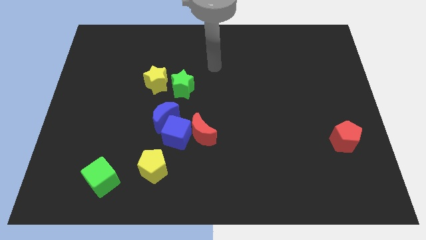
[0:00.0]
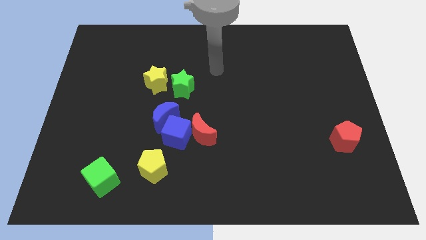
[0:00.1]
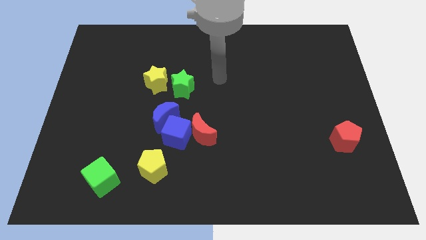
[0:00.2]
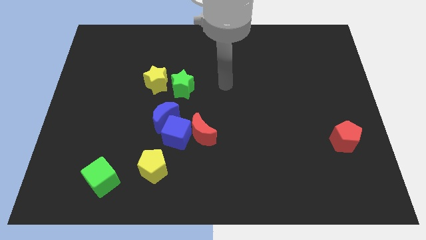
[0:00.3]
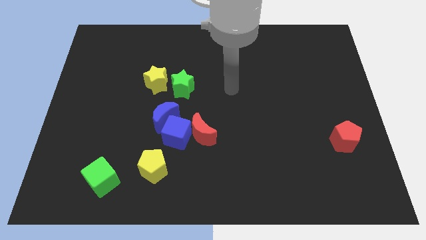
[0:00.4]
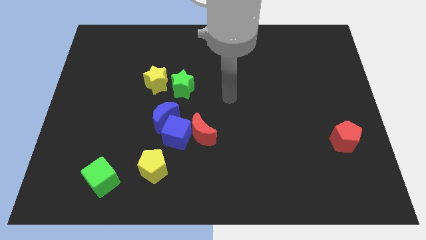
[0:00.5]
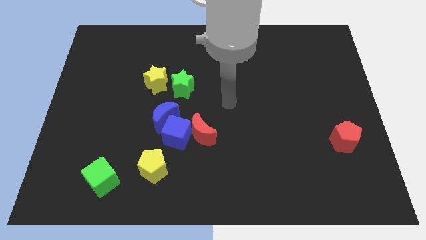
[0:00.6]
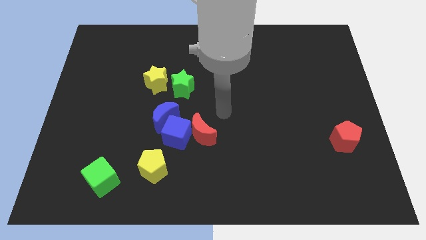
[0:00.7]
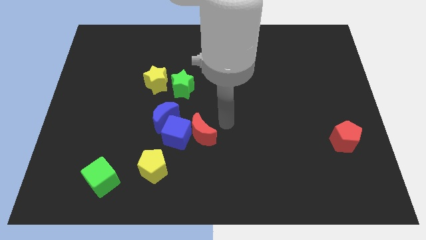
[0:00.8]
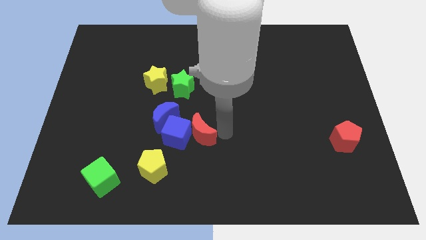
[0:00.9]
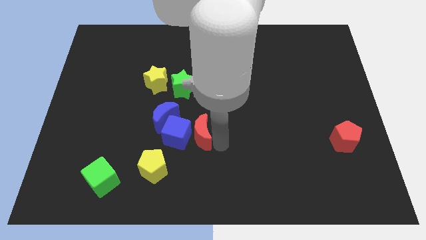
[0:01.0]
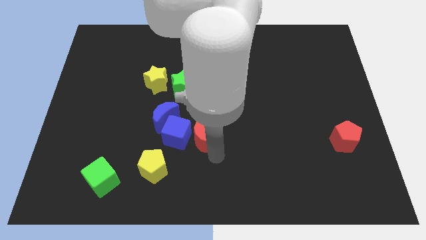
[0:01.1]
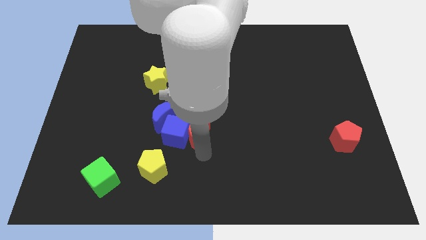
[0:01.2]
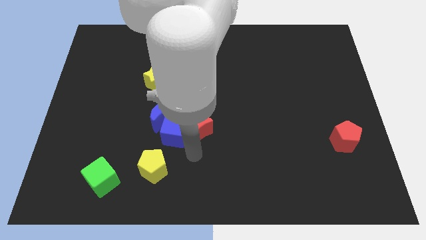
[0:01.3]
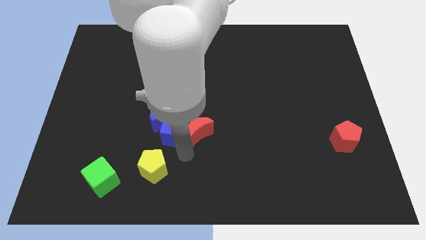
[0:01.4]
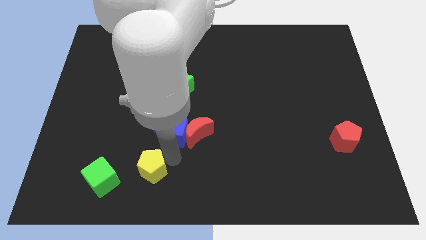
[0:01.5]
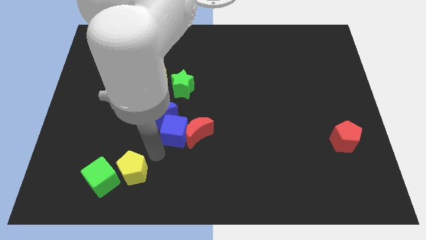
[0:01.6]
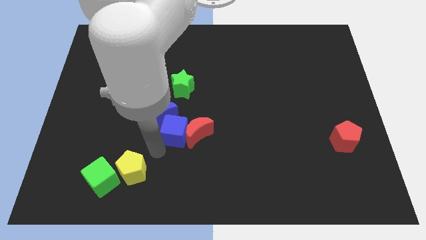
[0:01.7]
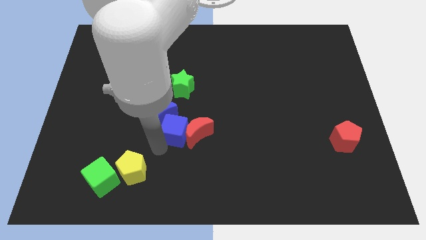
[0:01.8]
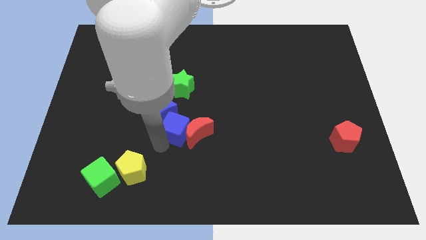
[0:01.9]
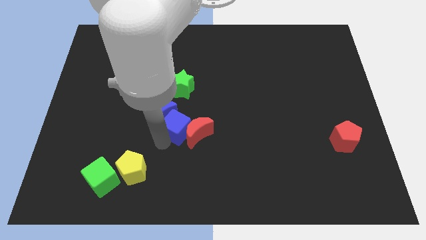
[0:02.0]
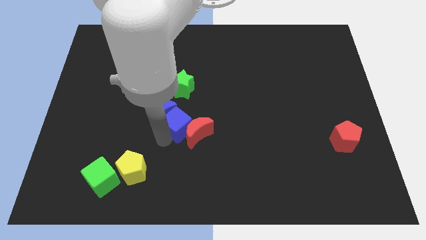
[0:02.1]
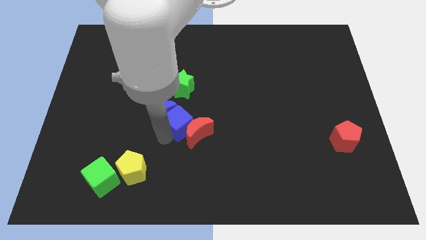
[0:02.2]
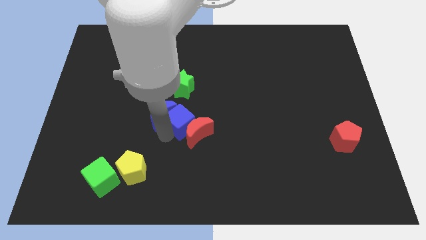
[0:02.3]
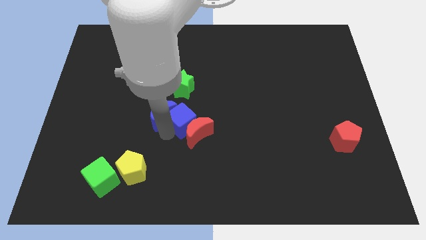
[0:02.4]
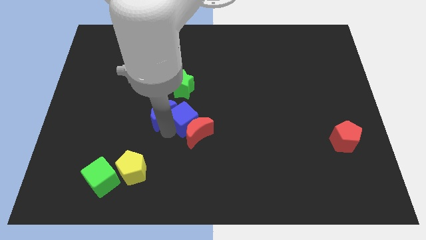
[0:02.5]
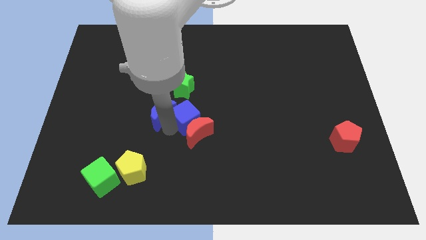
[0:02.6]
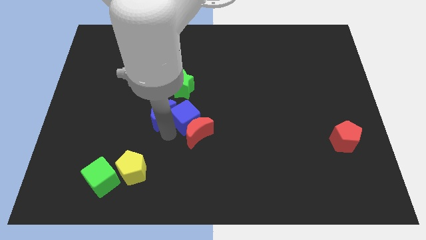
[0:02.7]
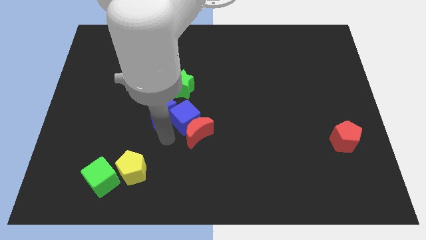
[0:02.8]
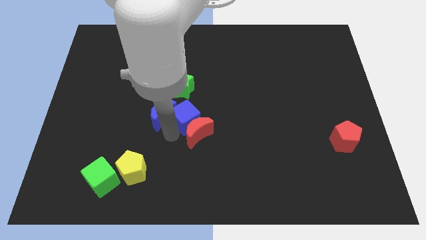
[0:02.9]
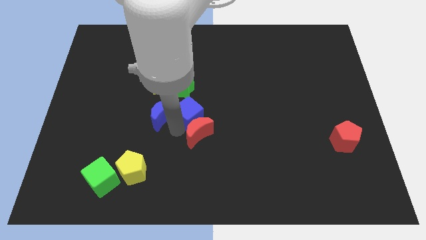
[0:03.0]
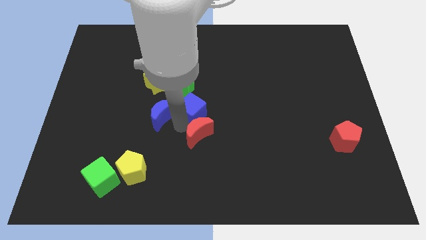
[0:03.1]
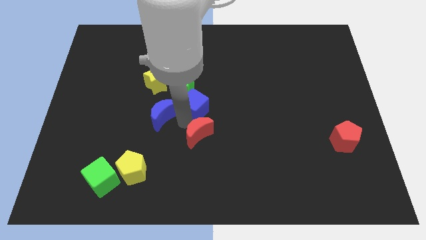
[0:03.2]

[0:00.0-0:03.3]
move the blue cube away from the clump

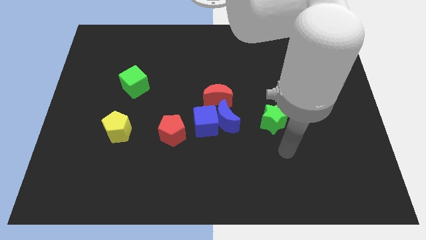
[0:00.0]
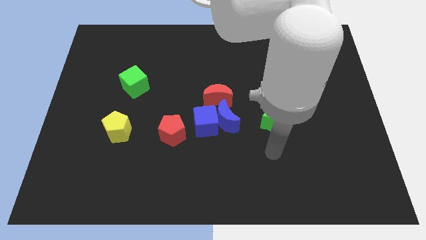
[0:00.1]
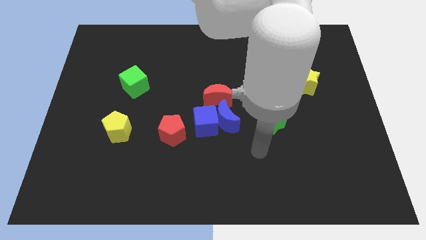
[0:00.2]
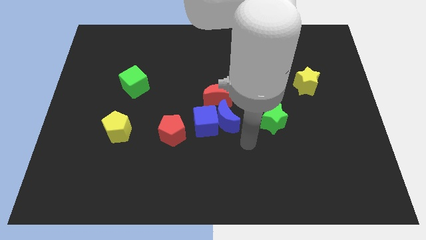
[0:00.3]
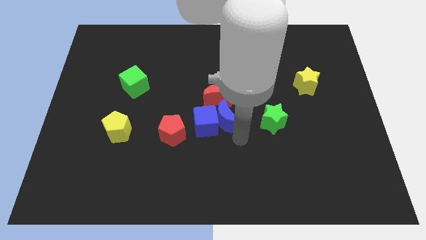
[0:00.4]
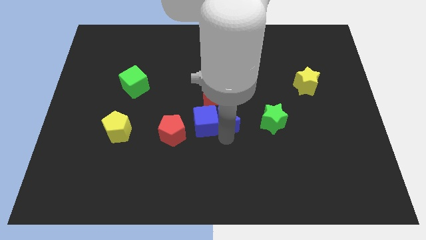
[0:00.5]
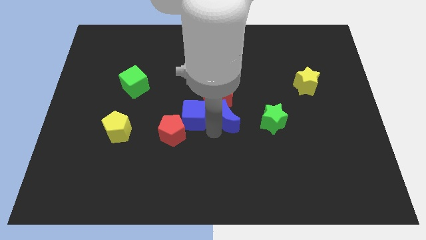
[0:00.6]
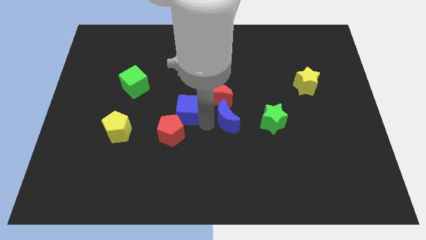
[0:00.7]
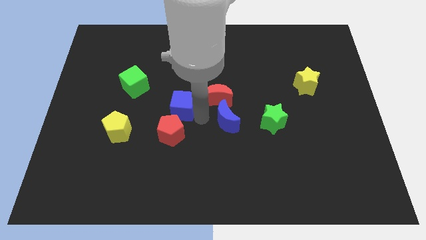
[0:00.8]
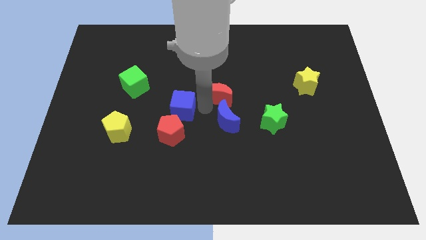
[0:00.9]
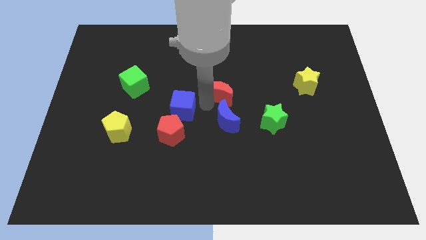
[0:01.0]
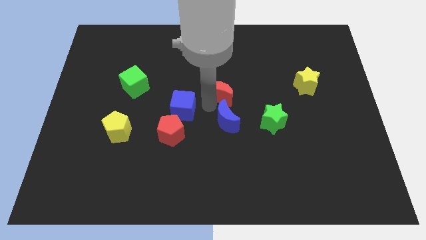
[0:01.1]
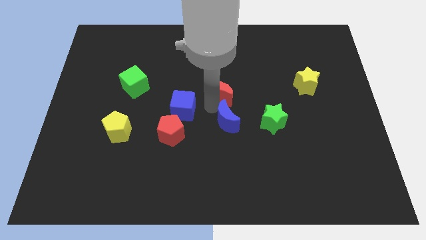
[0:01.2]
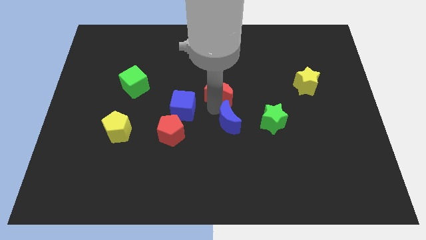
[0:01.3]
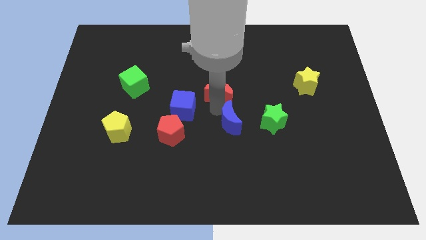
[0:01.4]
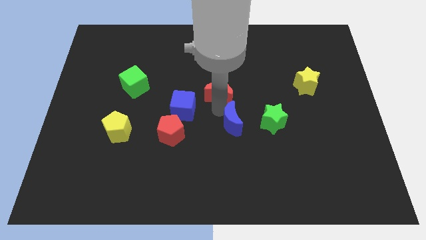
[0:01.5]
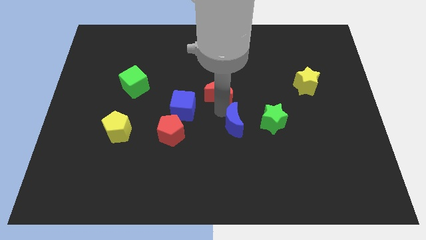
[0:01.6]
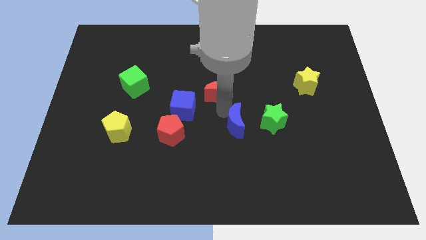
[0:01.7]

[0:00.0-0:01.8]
separate the blue moon from the blue cube and red moon

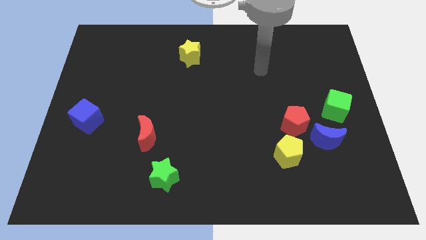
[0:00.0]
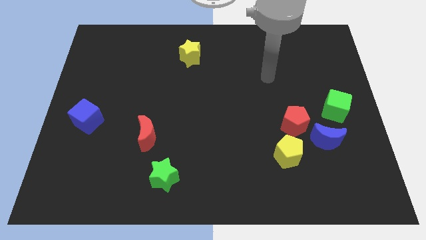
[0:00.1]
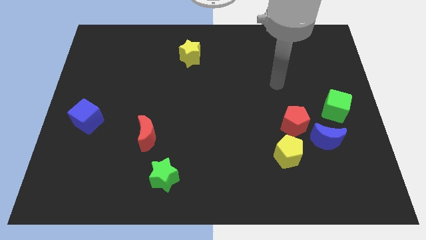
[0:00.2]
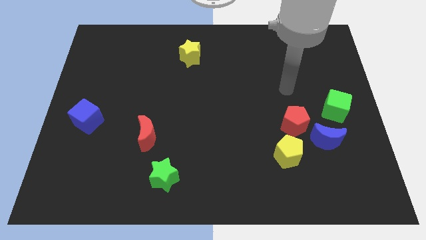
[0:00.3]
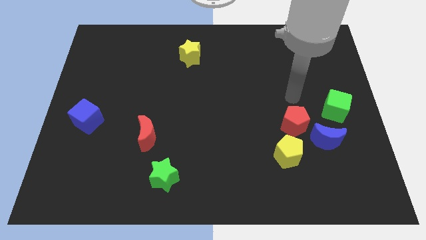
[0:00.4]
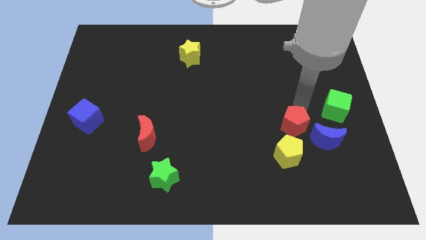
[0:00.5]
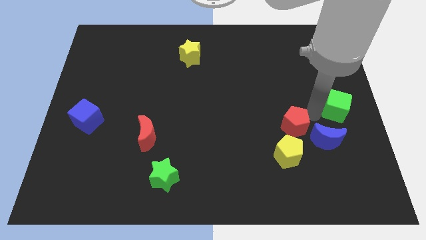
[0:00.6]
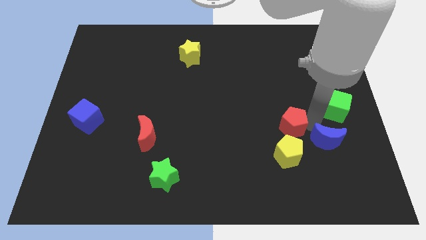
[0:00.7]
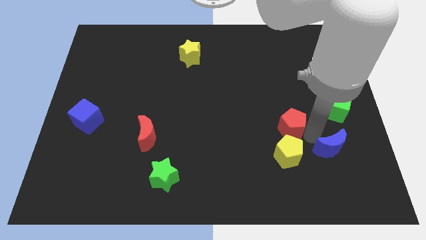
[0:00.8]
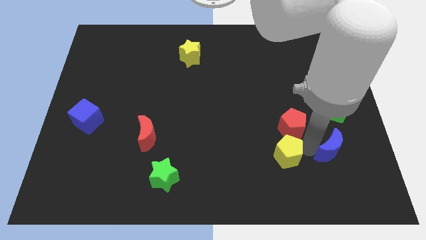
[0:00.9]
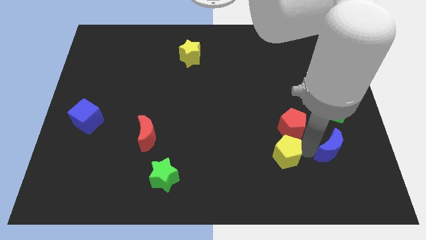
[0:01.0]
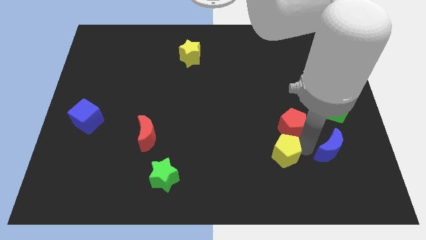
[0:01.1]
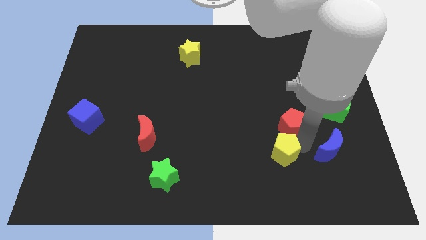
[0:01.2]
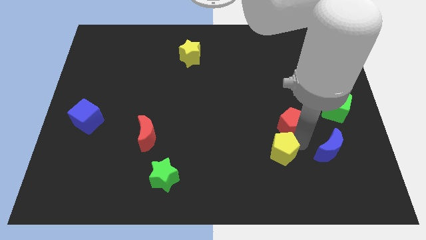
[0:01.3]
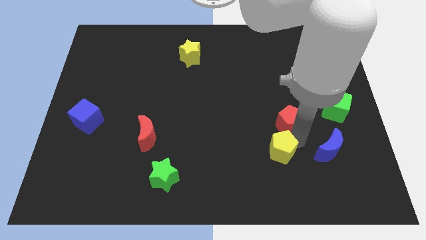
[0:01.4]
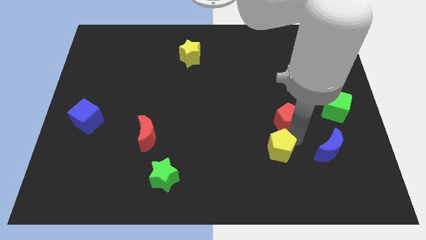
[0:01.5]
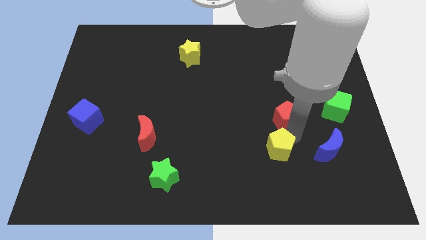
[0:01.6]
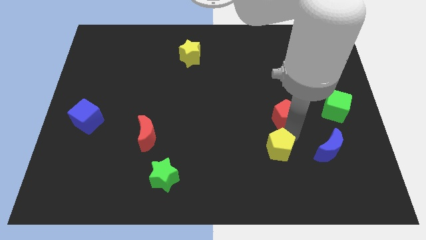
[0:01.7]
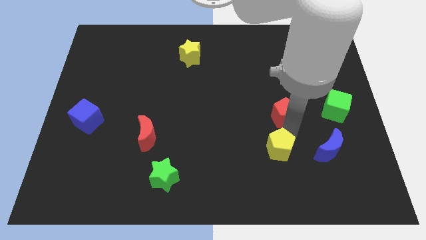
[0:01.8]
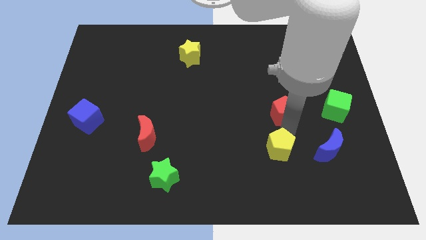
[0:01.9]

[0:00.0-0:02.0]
pull the red pentagon apart from the blue moon and yellow pentagon

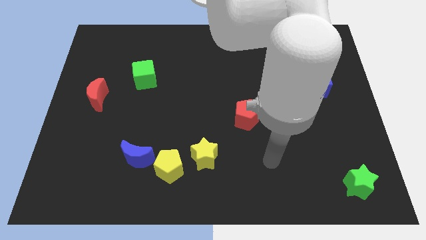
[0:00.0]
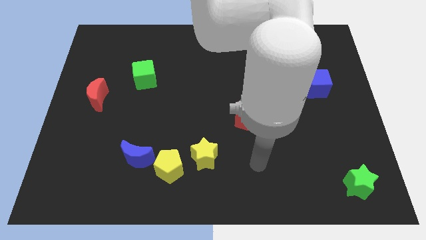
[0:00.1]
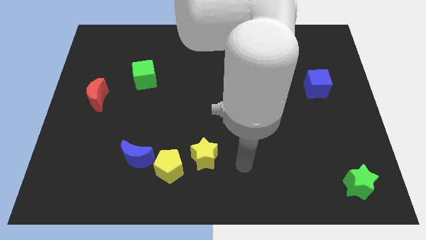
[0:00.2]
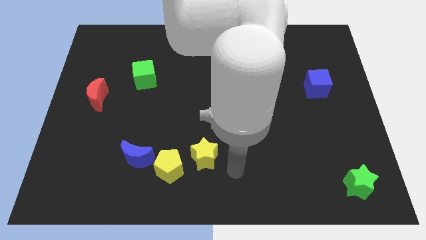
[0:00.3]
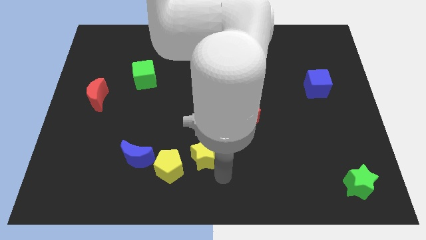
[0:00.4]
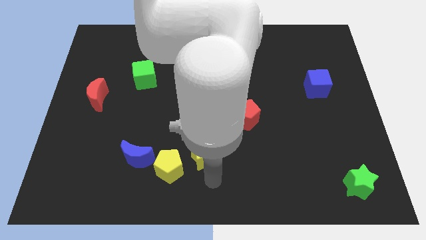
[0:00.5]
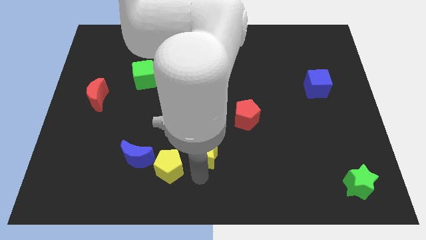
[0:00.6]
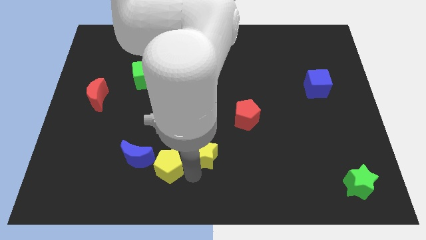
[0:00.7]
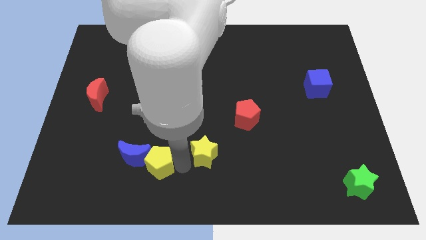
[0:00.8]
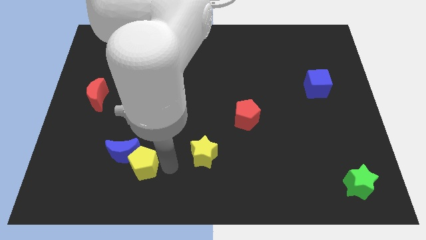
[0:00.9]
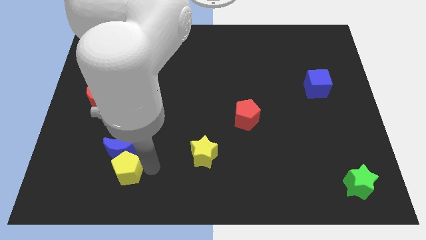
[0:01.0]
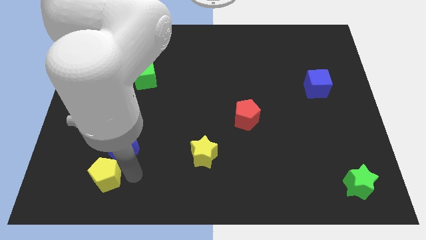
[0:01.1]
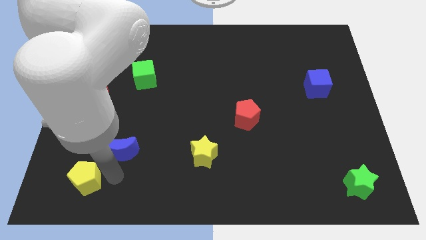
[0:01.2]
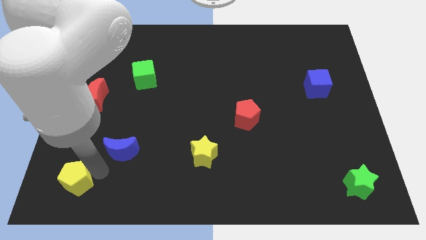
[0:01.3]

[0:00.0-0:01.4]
separate the blue moon from the yellow pentagon

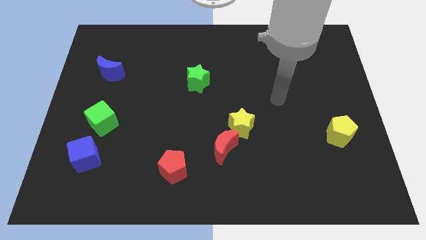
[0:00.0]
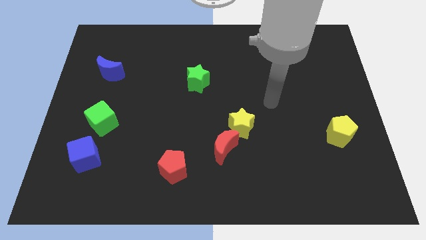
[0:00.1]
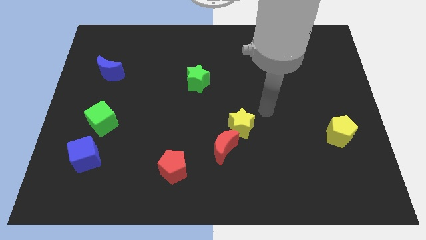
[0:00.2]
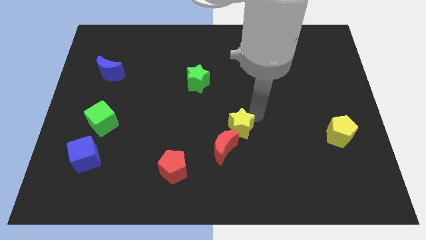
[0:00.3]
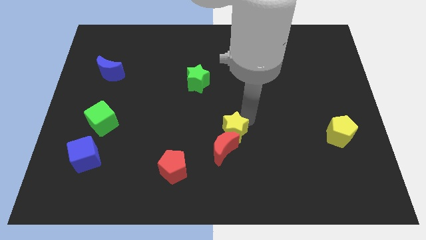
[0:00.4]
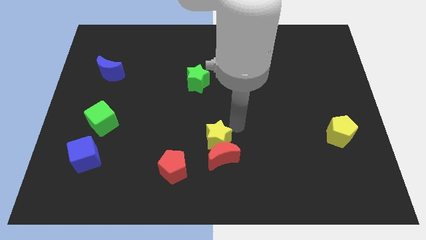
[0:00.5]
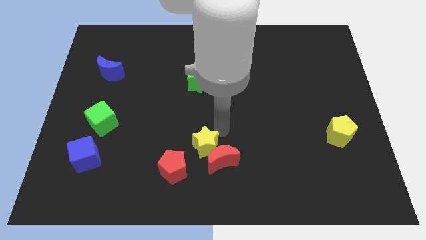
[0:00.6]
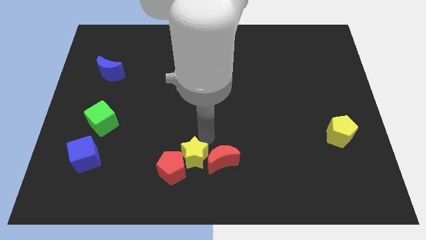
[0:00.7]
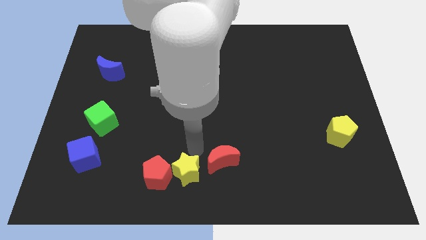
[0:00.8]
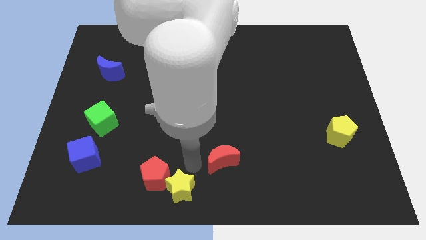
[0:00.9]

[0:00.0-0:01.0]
pull the red moon apart from the yellow star
